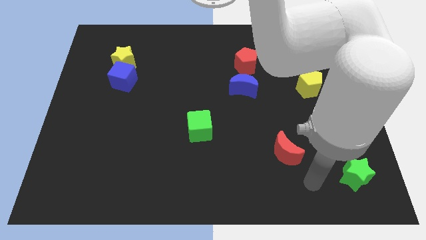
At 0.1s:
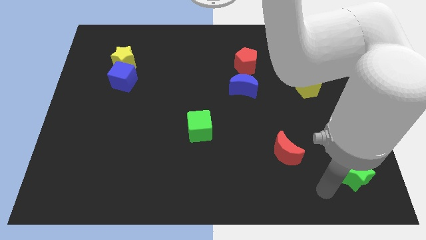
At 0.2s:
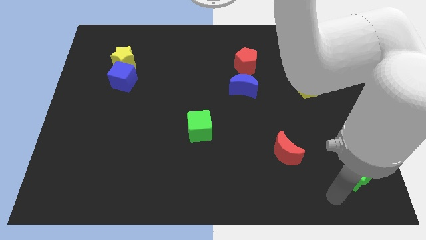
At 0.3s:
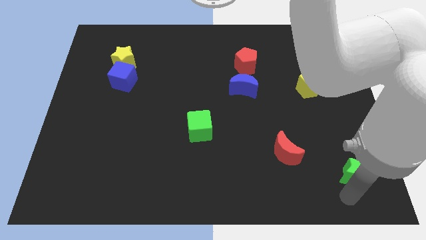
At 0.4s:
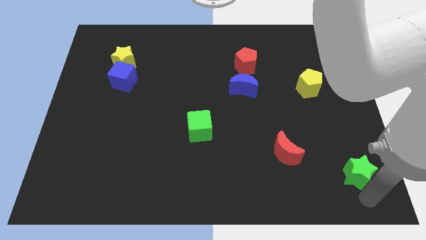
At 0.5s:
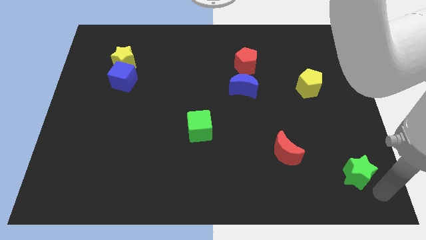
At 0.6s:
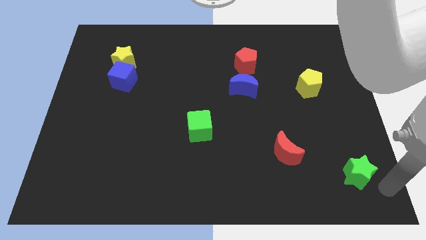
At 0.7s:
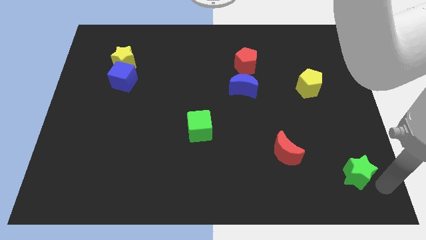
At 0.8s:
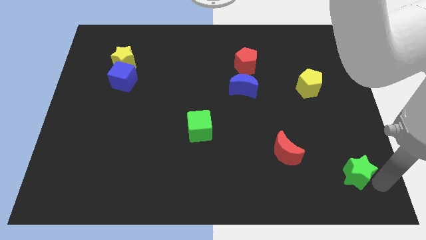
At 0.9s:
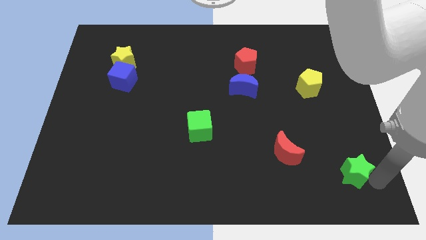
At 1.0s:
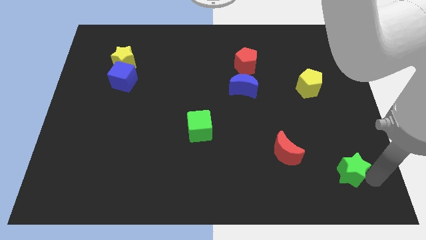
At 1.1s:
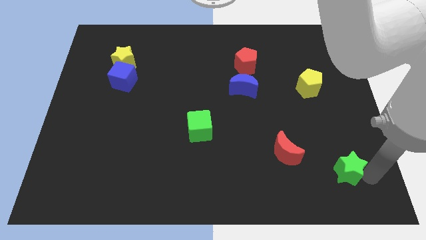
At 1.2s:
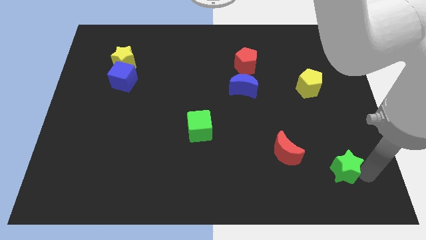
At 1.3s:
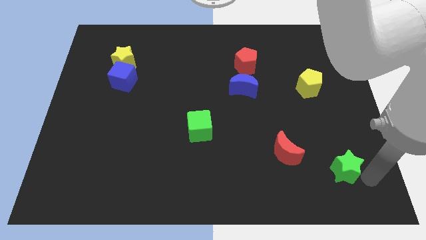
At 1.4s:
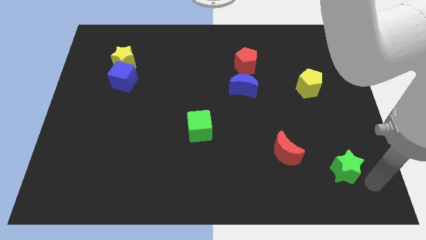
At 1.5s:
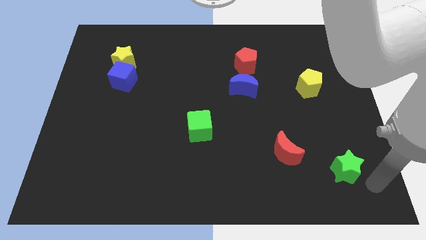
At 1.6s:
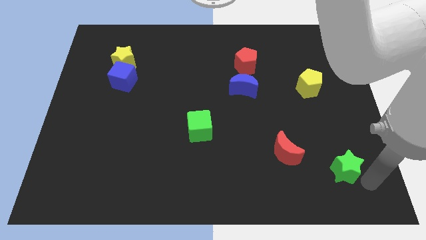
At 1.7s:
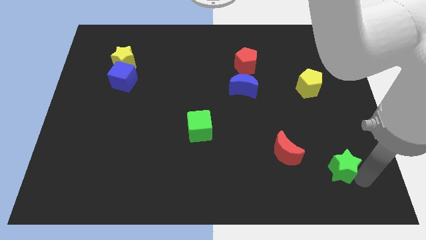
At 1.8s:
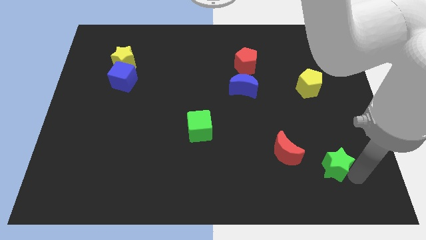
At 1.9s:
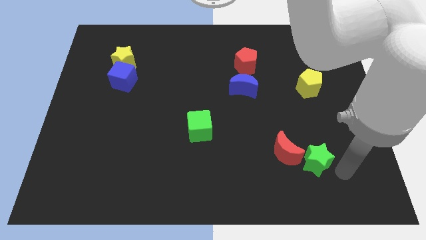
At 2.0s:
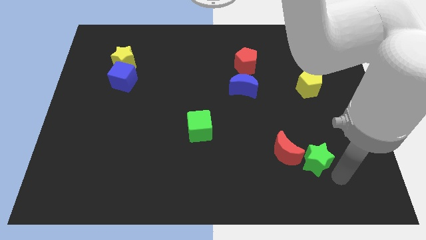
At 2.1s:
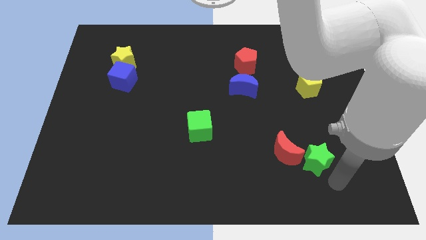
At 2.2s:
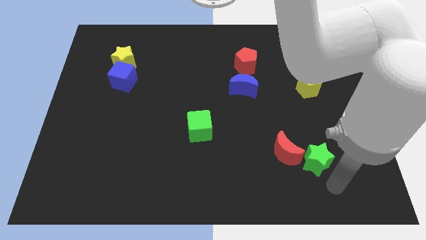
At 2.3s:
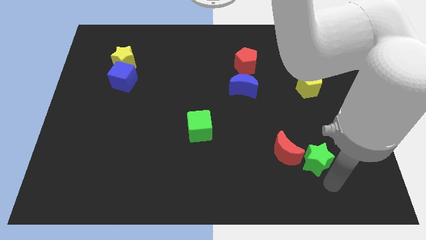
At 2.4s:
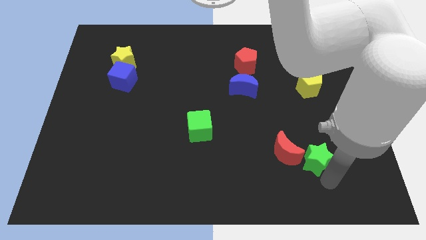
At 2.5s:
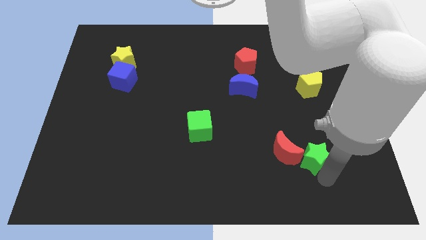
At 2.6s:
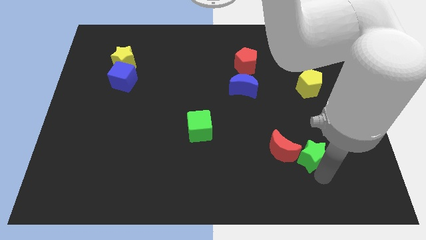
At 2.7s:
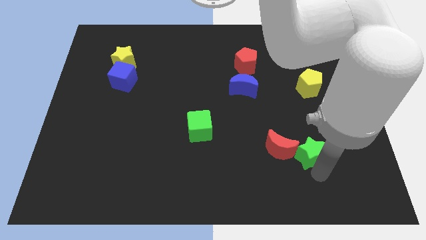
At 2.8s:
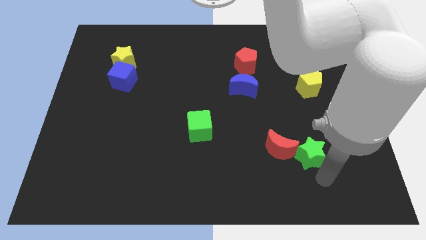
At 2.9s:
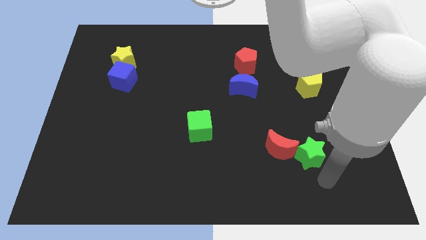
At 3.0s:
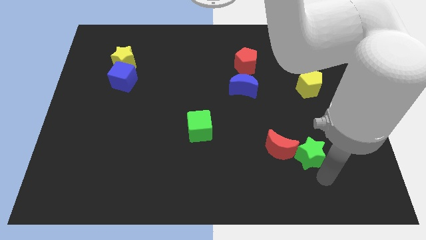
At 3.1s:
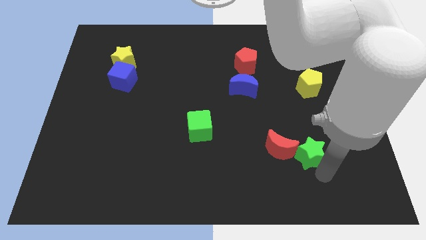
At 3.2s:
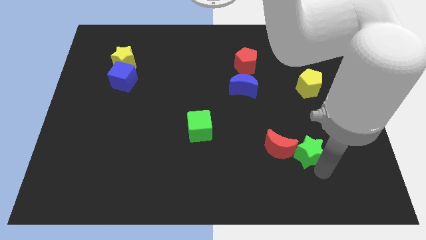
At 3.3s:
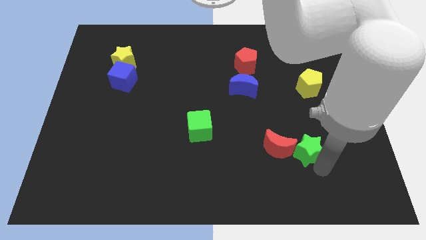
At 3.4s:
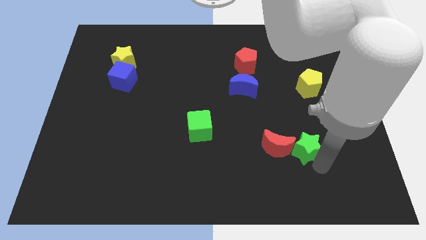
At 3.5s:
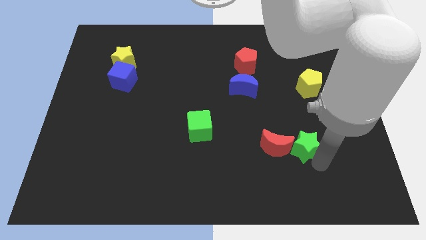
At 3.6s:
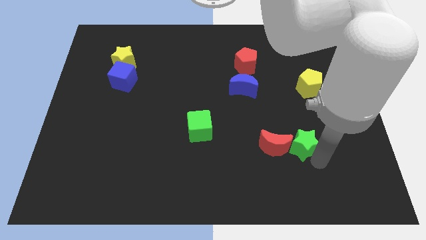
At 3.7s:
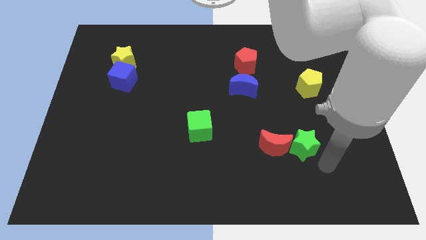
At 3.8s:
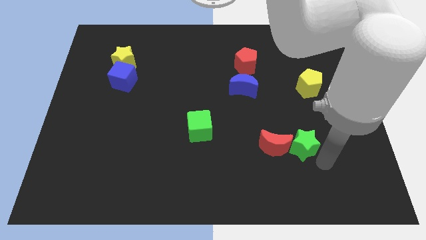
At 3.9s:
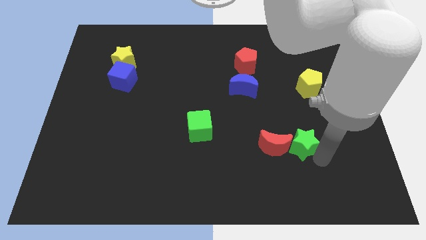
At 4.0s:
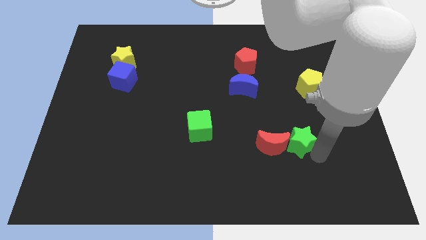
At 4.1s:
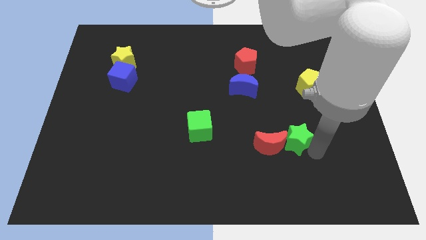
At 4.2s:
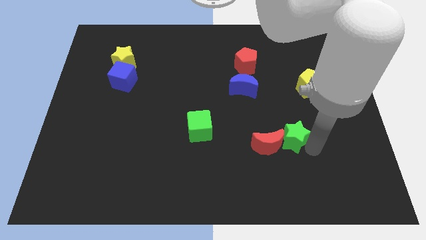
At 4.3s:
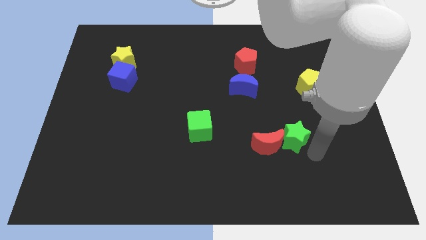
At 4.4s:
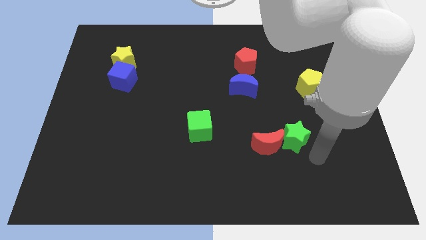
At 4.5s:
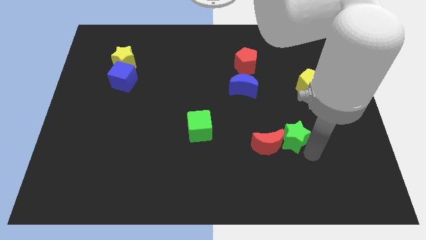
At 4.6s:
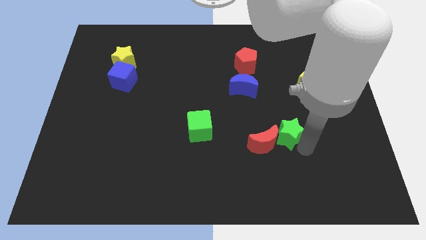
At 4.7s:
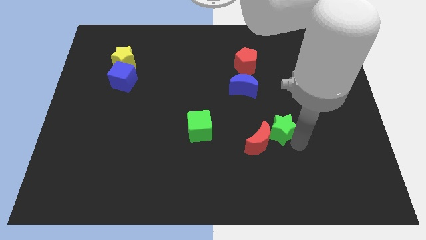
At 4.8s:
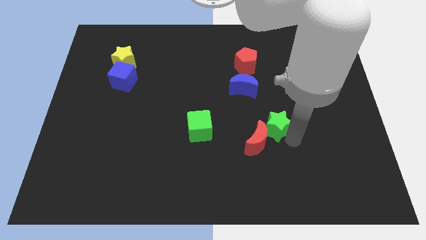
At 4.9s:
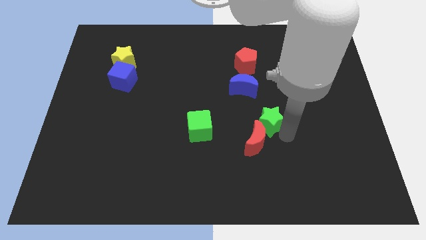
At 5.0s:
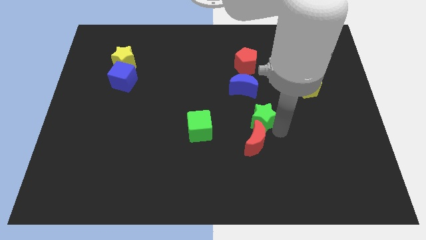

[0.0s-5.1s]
slide the green star to the middle

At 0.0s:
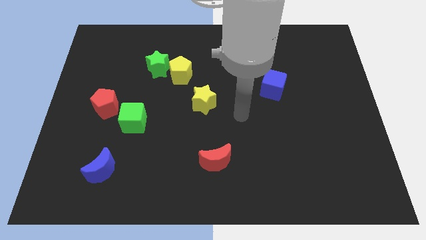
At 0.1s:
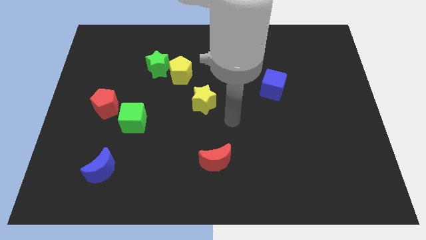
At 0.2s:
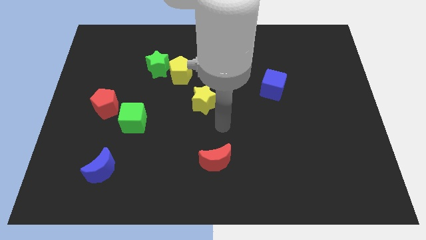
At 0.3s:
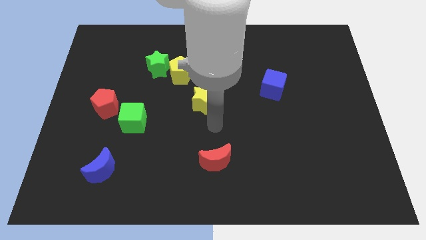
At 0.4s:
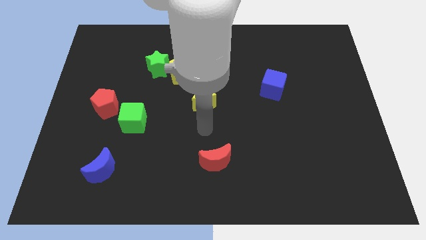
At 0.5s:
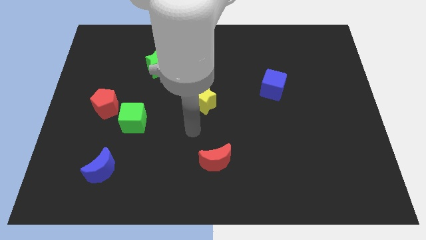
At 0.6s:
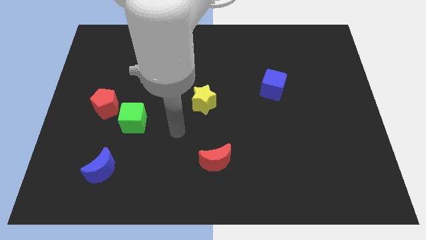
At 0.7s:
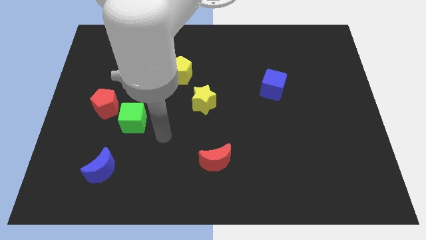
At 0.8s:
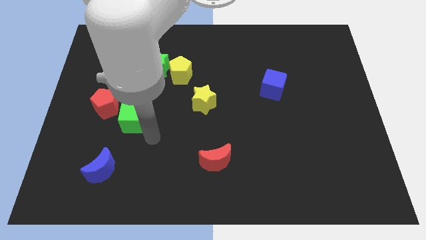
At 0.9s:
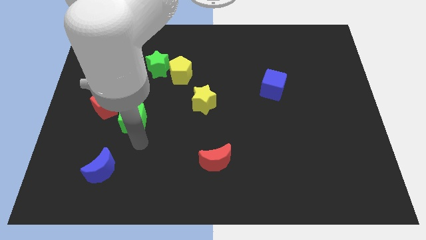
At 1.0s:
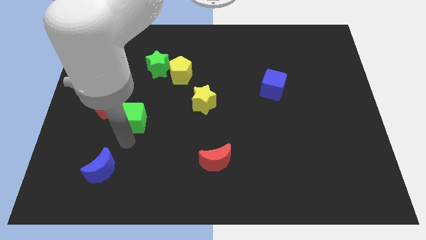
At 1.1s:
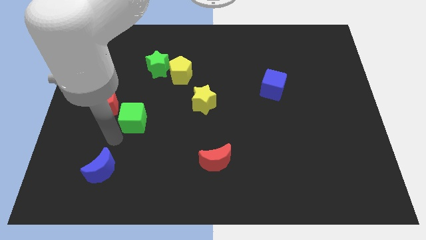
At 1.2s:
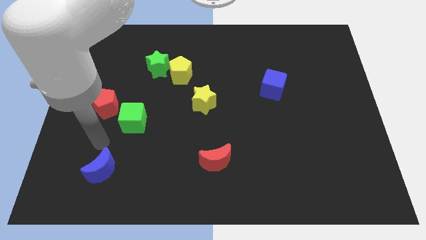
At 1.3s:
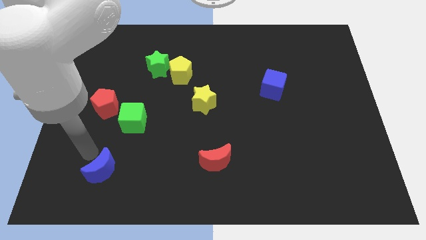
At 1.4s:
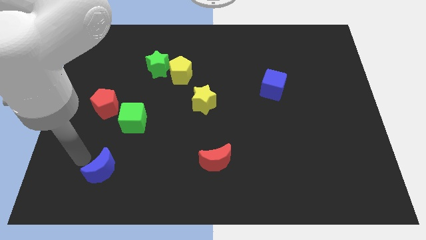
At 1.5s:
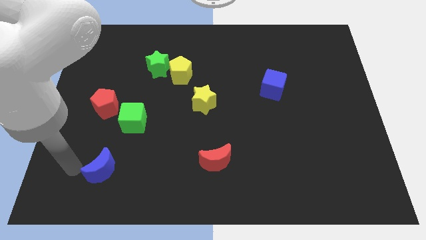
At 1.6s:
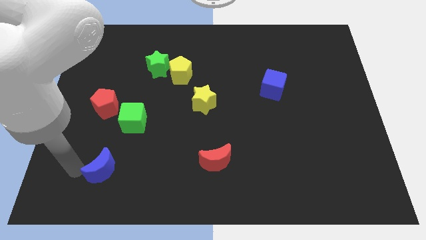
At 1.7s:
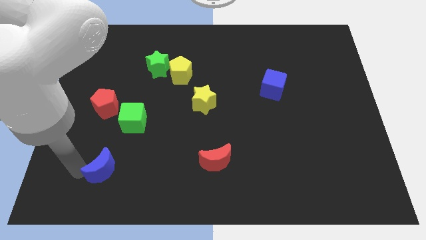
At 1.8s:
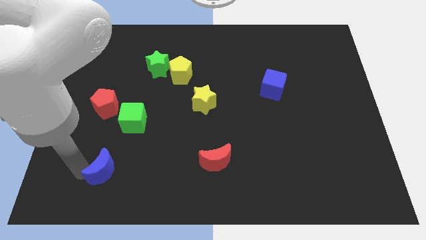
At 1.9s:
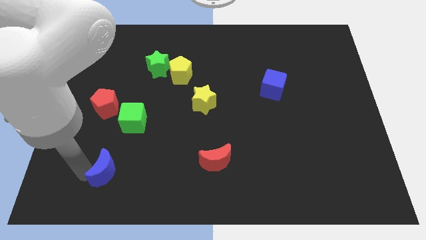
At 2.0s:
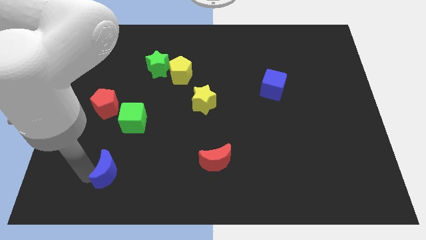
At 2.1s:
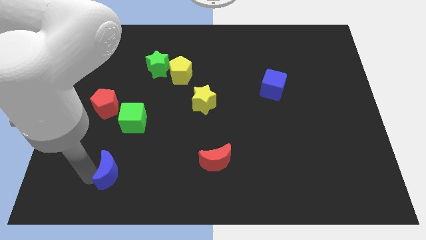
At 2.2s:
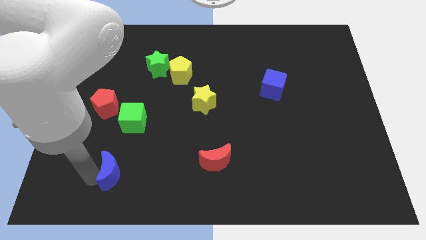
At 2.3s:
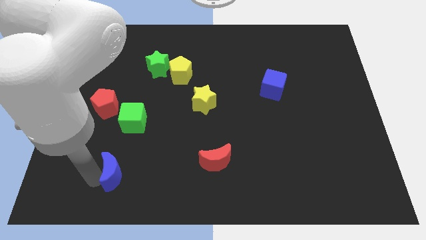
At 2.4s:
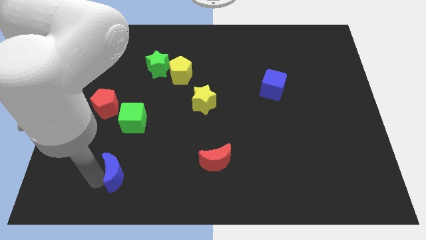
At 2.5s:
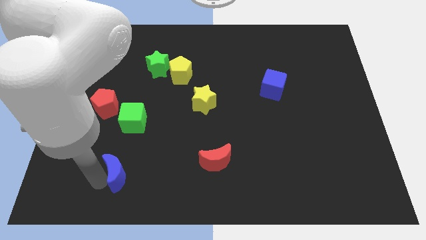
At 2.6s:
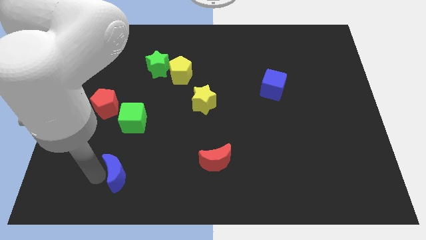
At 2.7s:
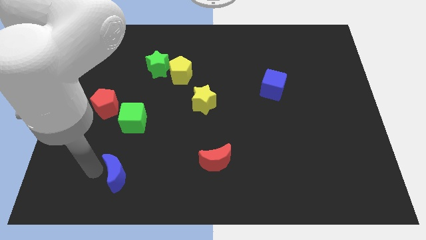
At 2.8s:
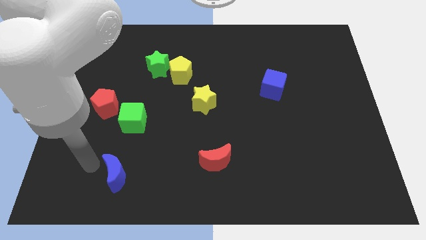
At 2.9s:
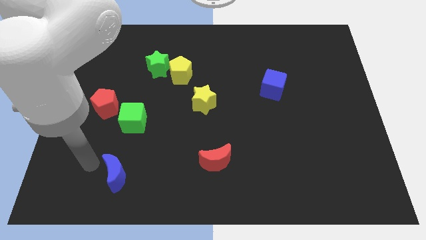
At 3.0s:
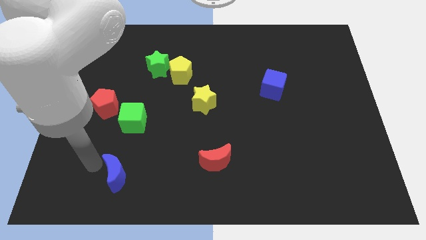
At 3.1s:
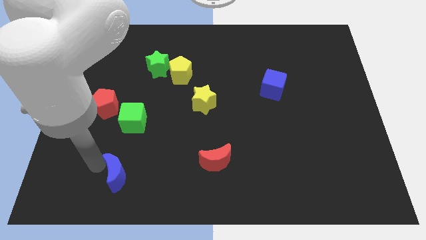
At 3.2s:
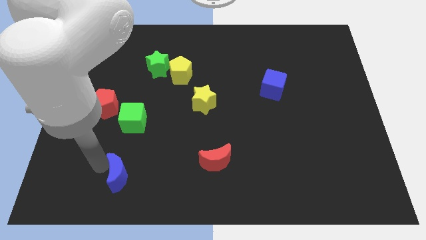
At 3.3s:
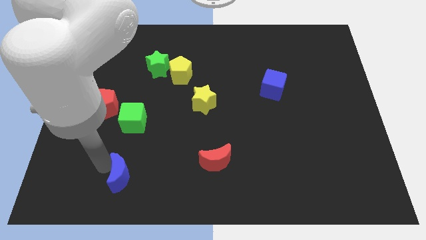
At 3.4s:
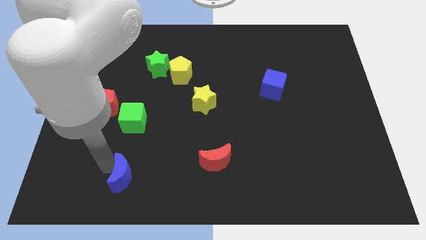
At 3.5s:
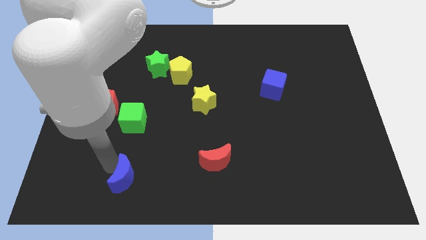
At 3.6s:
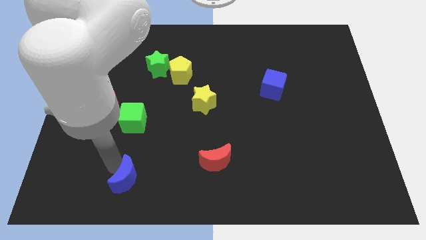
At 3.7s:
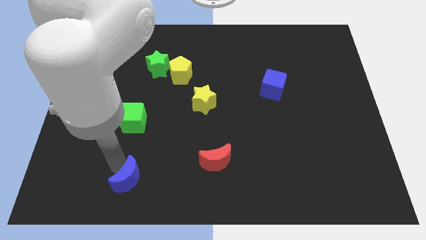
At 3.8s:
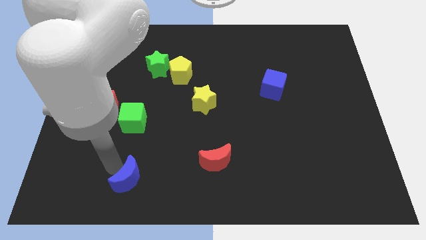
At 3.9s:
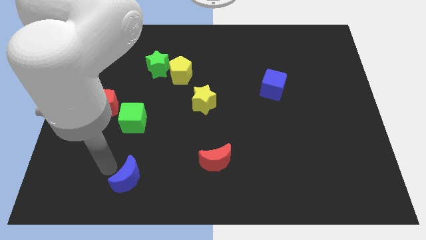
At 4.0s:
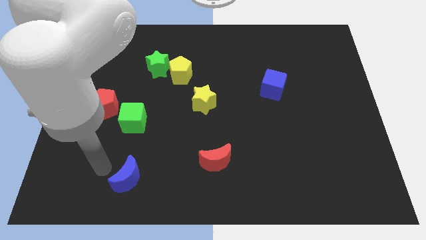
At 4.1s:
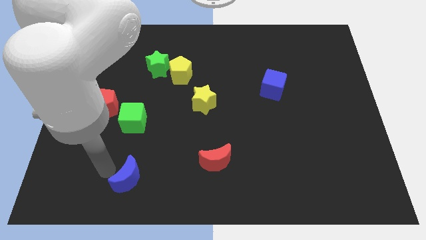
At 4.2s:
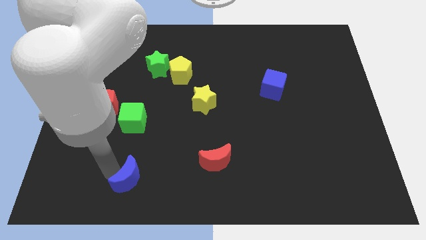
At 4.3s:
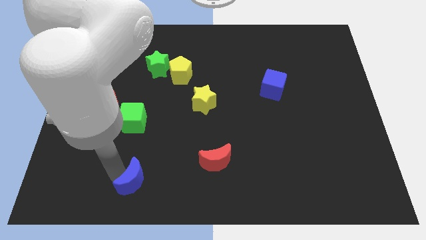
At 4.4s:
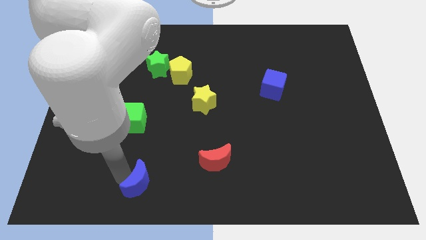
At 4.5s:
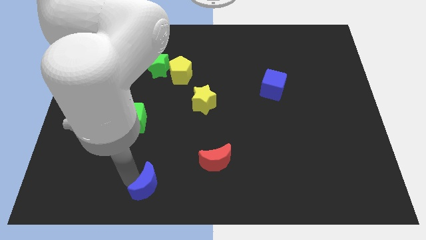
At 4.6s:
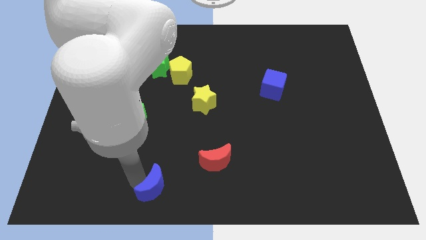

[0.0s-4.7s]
push the blue moon to the bottom
